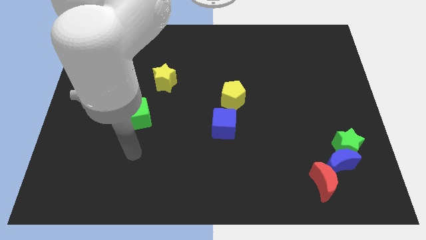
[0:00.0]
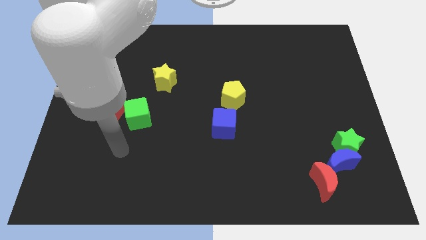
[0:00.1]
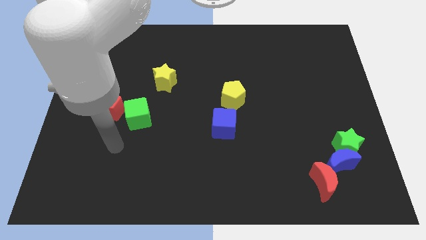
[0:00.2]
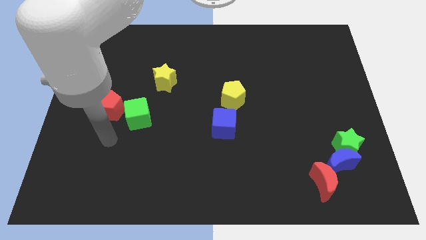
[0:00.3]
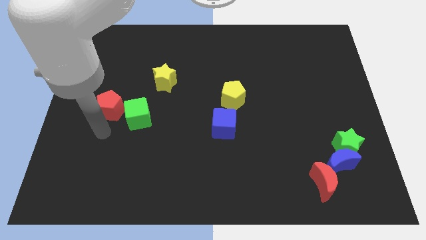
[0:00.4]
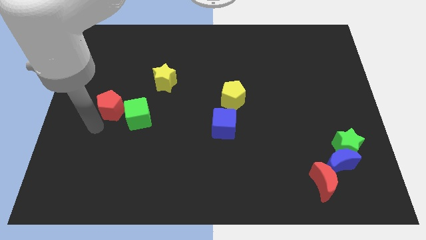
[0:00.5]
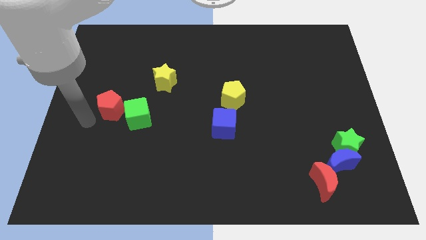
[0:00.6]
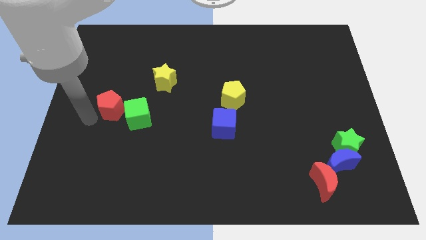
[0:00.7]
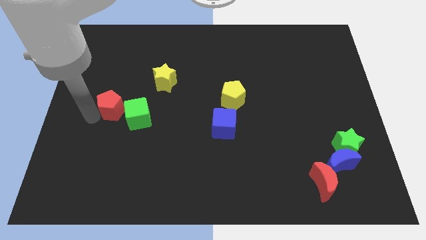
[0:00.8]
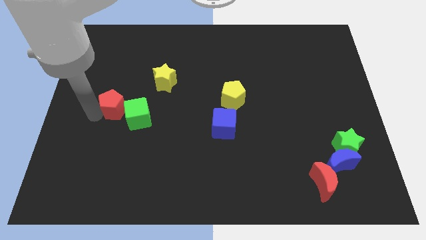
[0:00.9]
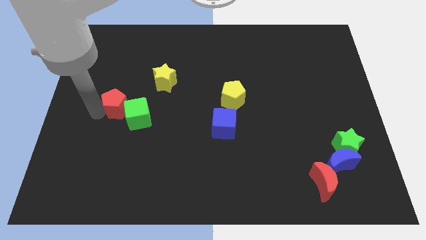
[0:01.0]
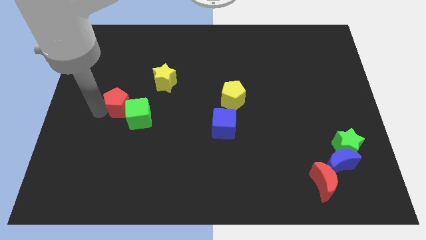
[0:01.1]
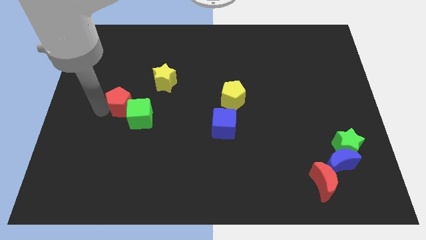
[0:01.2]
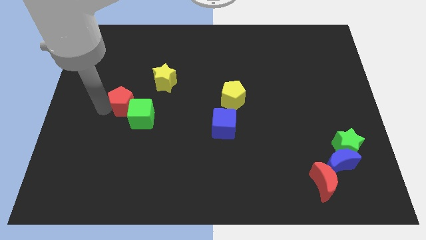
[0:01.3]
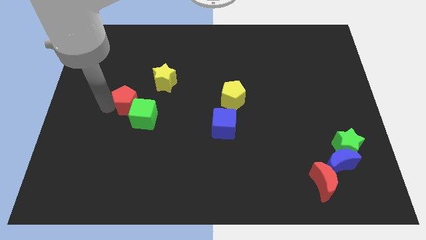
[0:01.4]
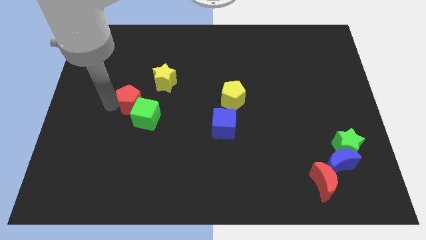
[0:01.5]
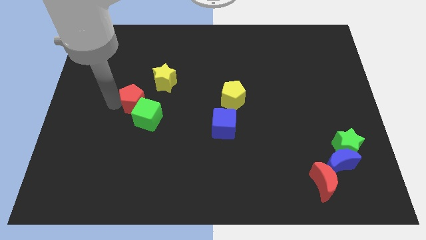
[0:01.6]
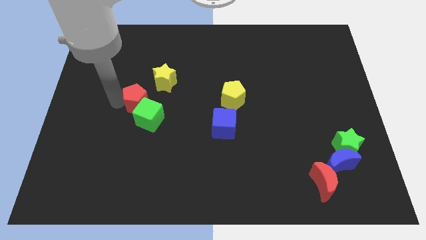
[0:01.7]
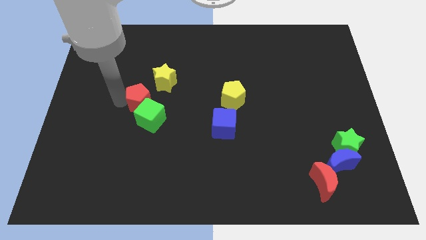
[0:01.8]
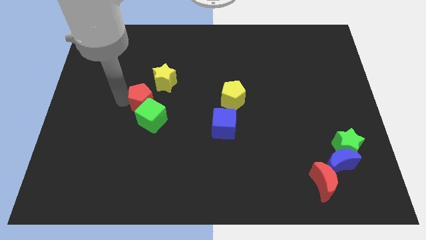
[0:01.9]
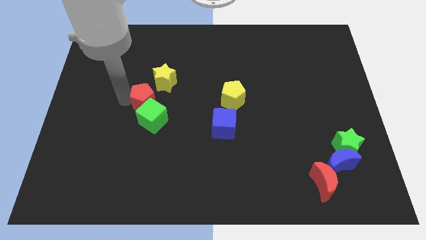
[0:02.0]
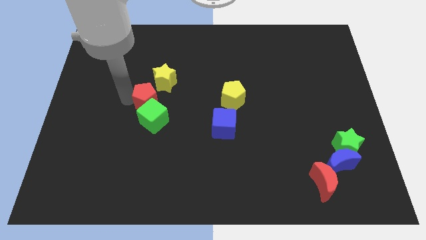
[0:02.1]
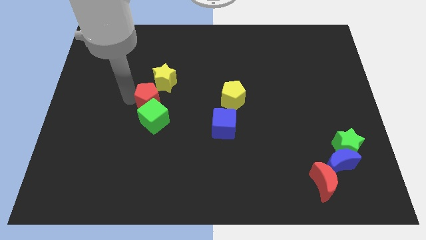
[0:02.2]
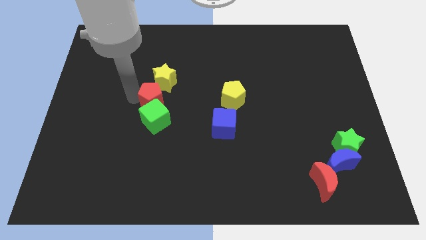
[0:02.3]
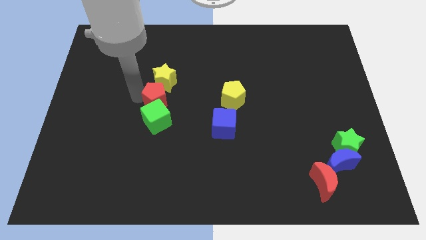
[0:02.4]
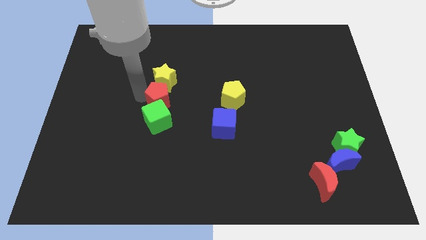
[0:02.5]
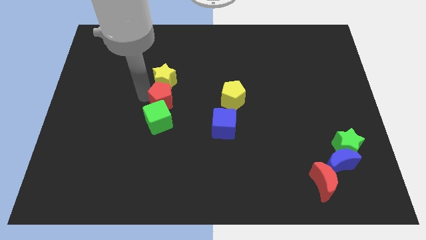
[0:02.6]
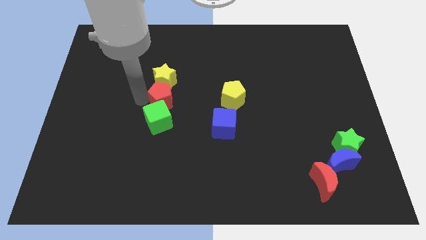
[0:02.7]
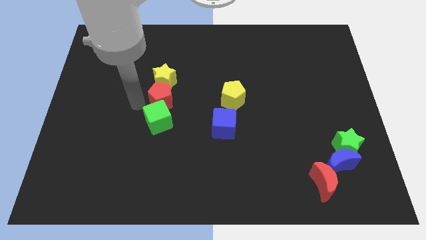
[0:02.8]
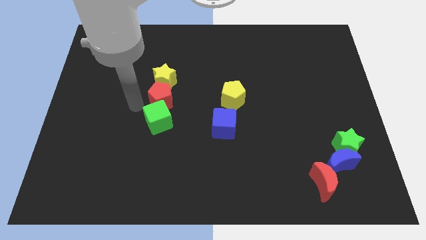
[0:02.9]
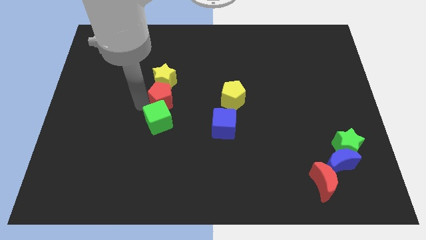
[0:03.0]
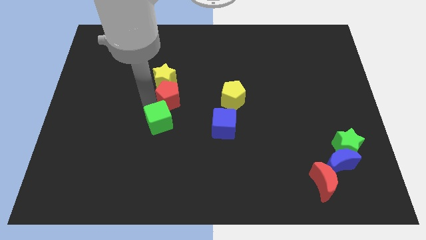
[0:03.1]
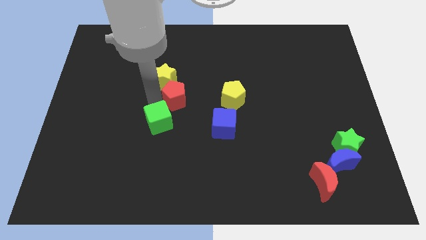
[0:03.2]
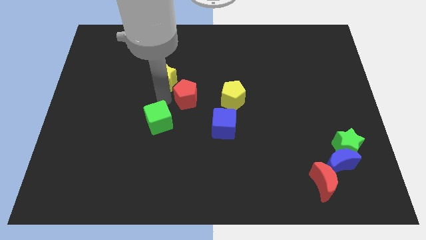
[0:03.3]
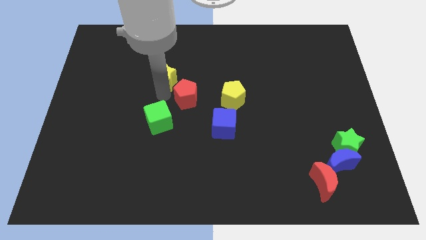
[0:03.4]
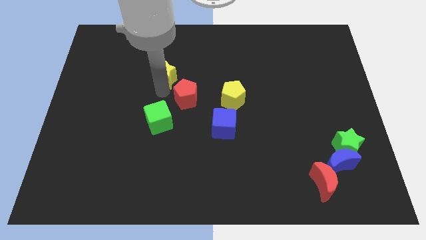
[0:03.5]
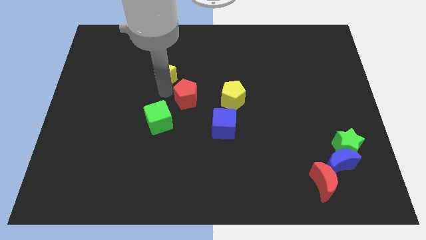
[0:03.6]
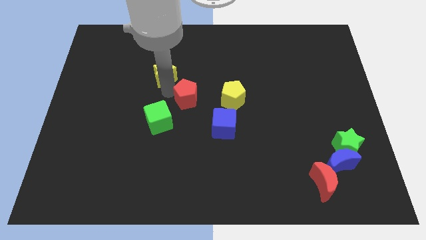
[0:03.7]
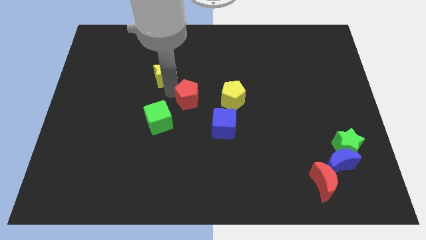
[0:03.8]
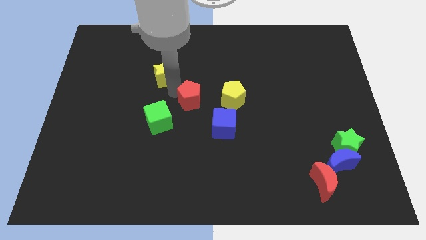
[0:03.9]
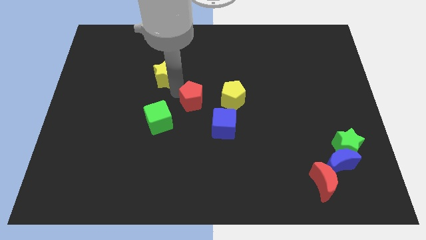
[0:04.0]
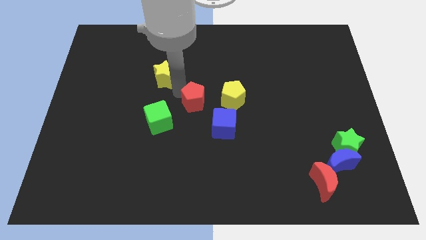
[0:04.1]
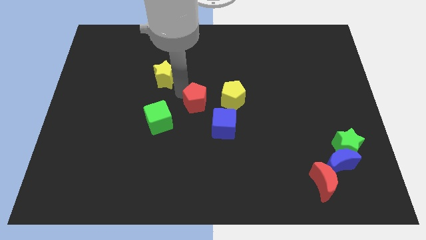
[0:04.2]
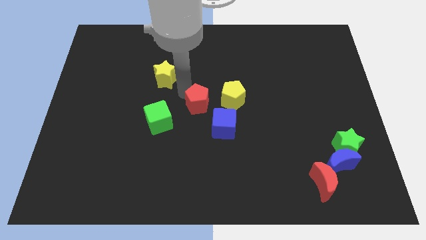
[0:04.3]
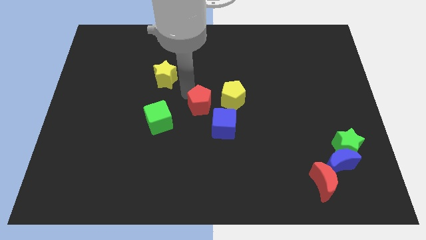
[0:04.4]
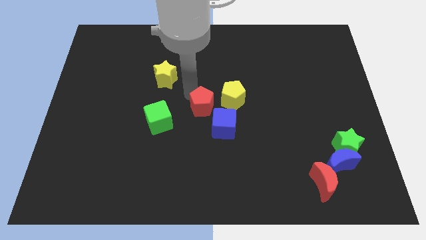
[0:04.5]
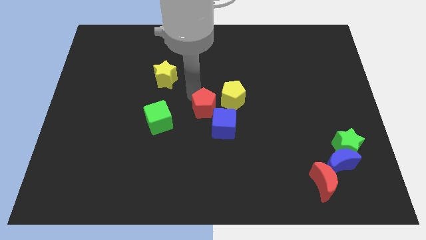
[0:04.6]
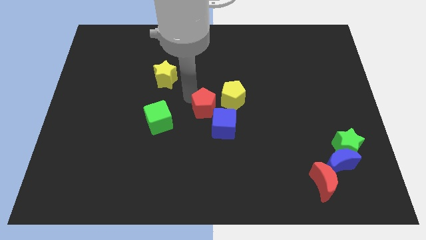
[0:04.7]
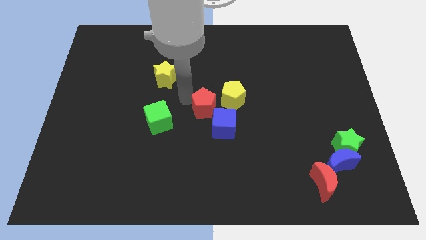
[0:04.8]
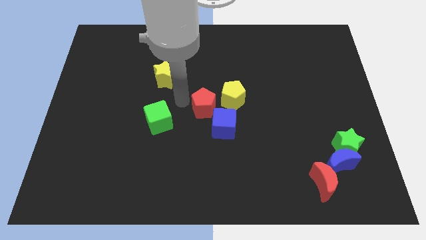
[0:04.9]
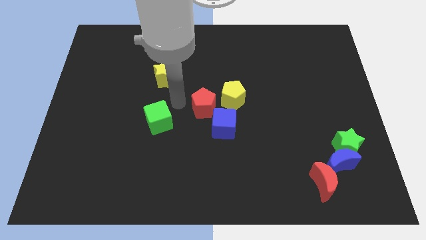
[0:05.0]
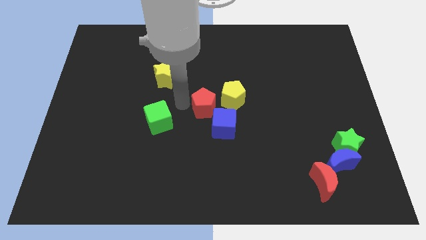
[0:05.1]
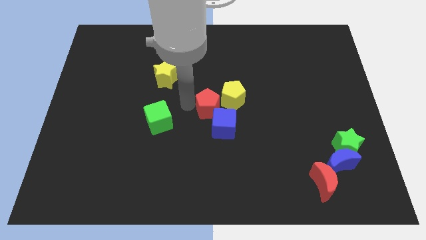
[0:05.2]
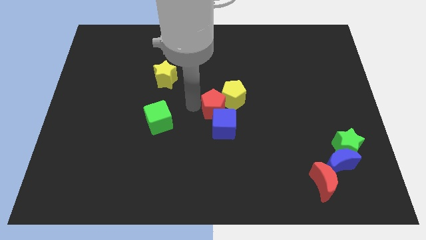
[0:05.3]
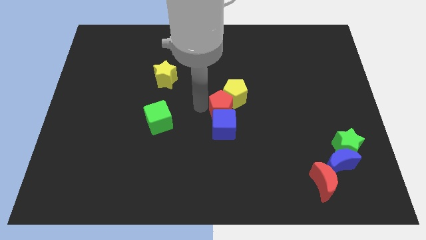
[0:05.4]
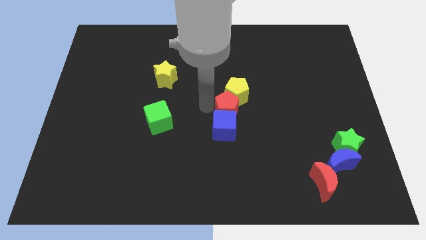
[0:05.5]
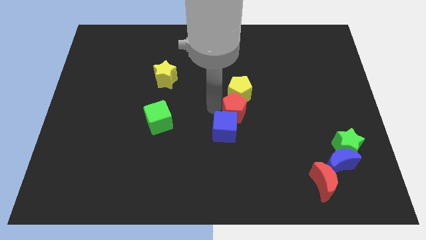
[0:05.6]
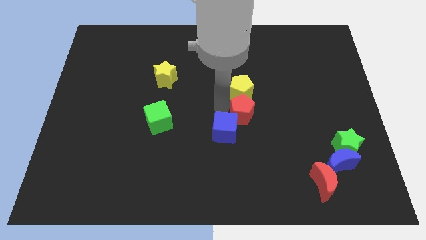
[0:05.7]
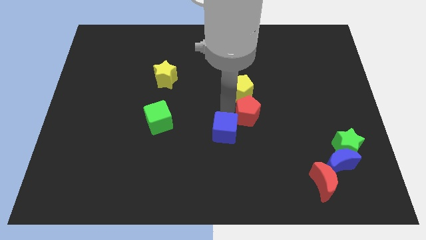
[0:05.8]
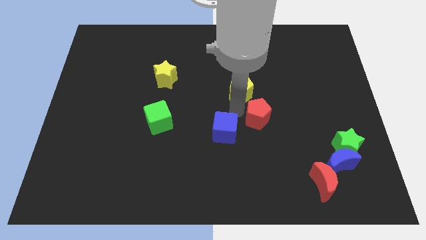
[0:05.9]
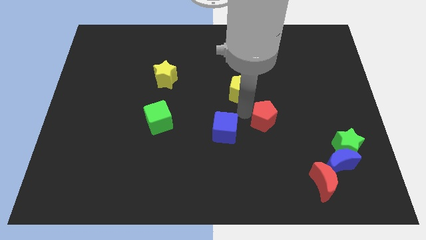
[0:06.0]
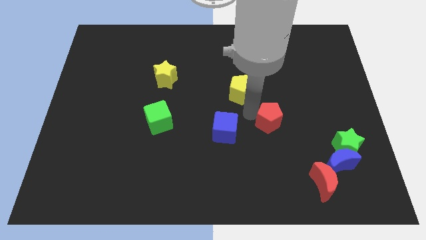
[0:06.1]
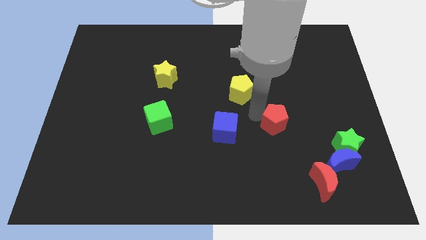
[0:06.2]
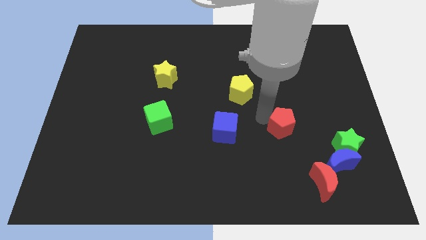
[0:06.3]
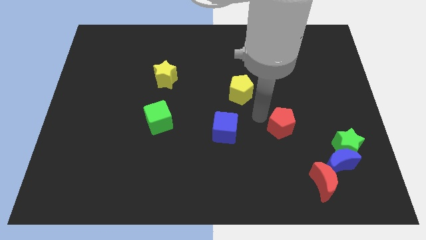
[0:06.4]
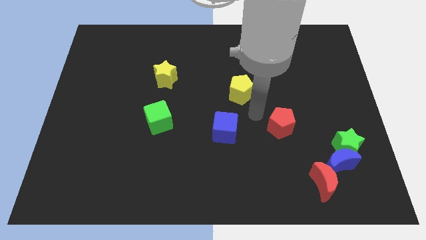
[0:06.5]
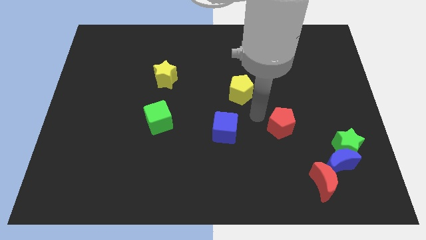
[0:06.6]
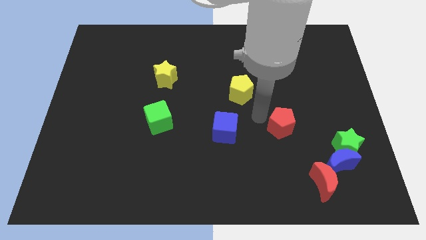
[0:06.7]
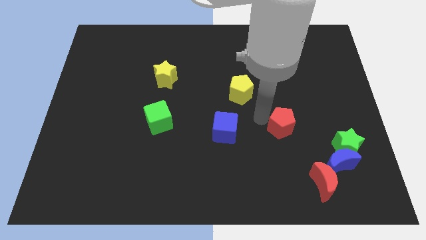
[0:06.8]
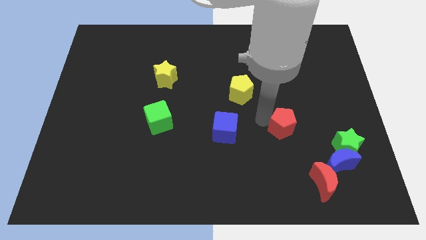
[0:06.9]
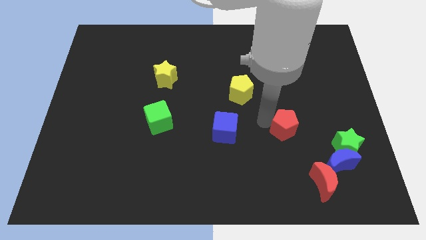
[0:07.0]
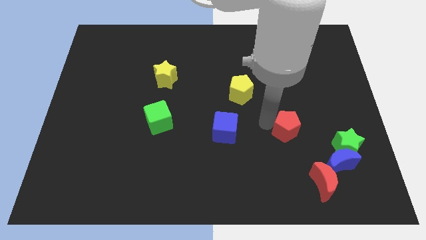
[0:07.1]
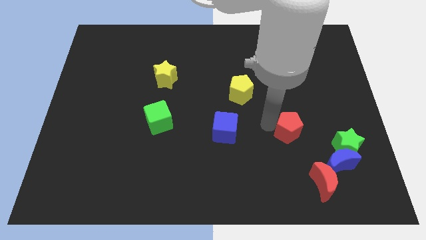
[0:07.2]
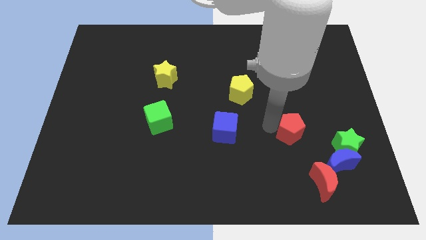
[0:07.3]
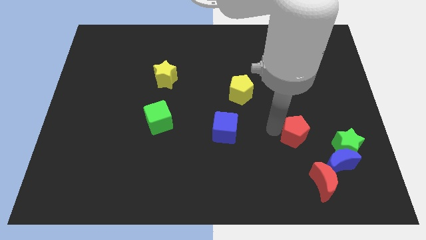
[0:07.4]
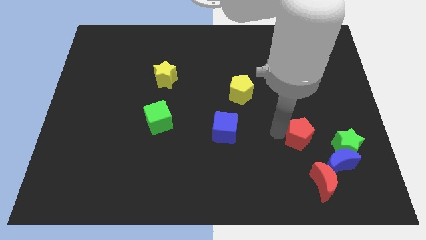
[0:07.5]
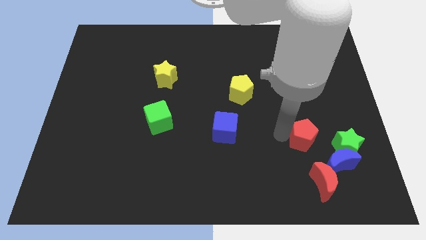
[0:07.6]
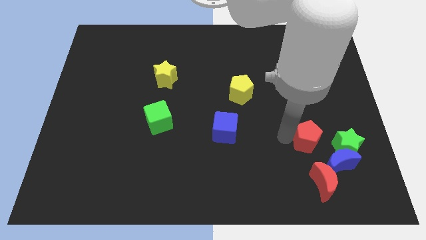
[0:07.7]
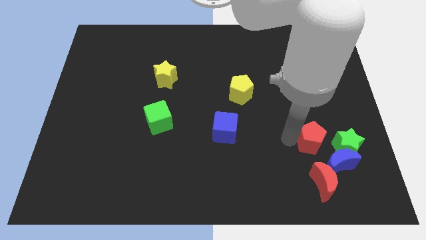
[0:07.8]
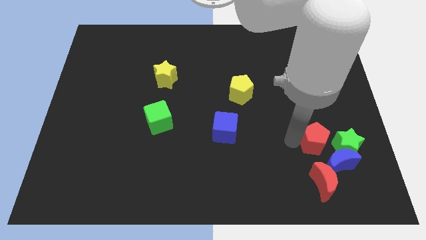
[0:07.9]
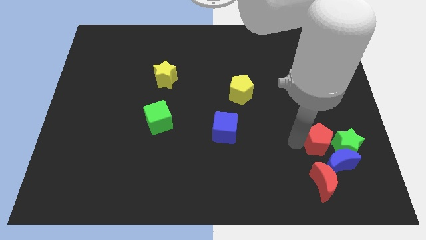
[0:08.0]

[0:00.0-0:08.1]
push the red pentagon towards the green star
